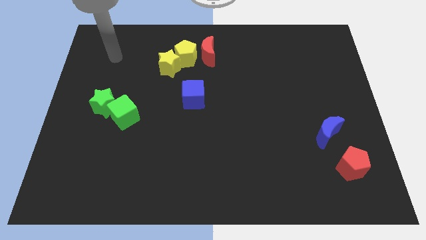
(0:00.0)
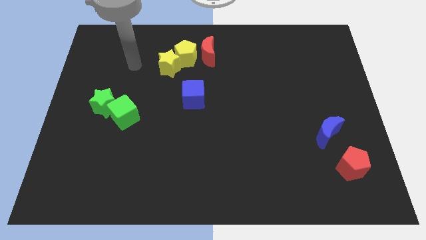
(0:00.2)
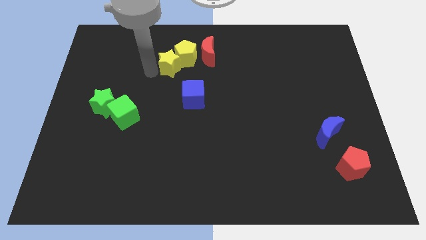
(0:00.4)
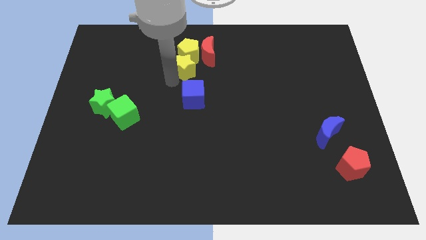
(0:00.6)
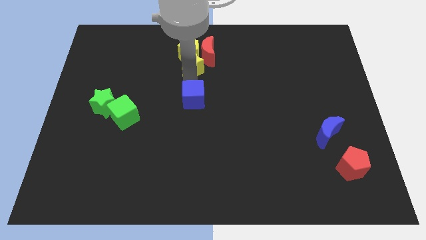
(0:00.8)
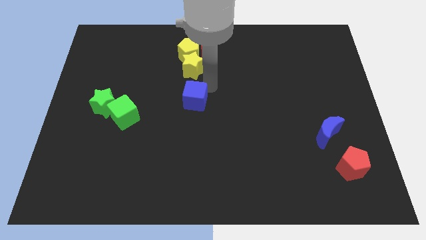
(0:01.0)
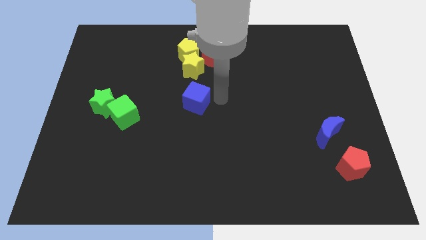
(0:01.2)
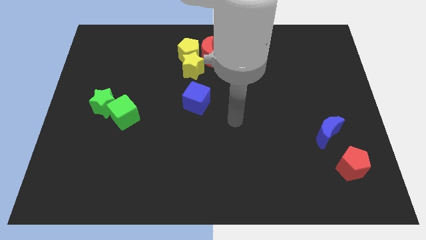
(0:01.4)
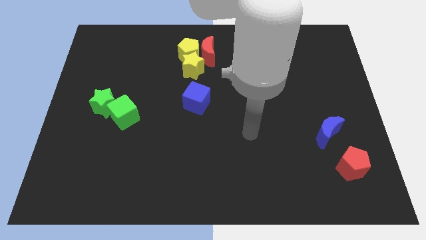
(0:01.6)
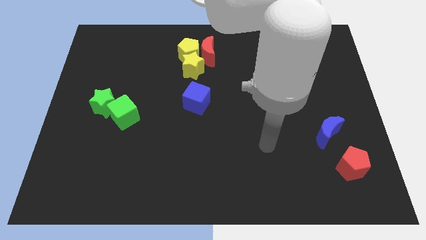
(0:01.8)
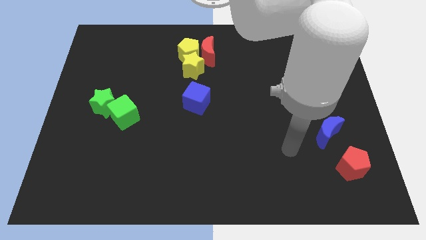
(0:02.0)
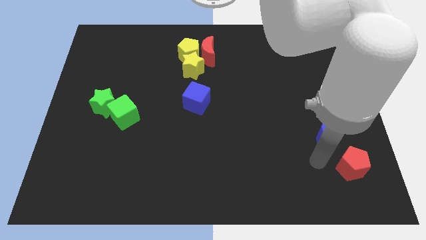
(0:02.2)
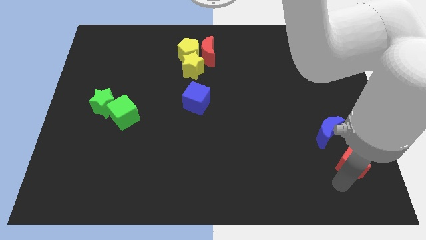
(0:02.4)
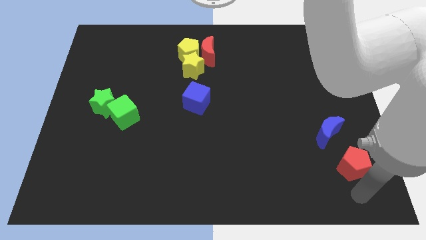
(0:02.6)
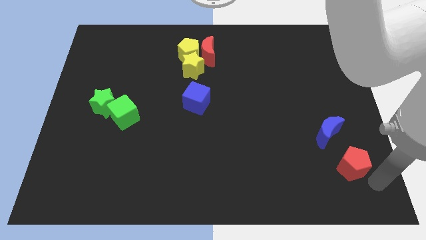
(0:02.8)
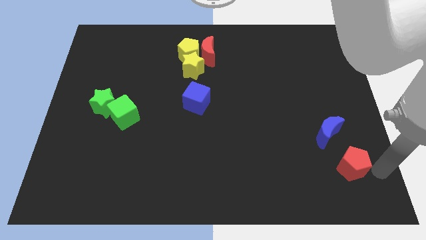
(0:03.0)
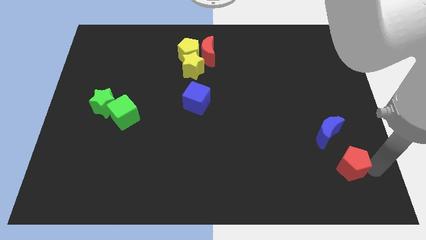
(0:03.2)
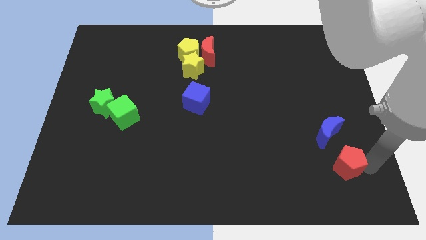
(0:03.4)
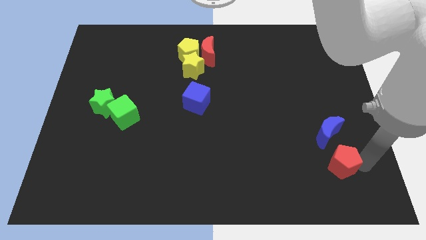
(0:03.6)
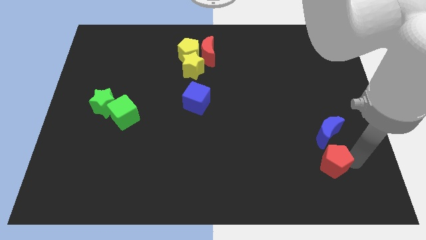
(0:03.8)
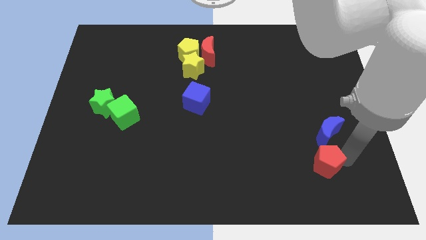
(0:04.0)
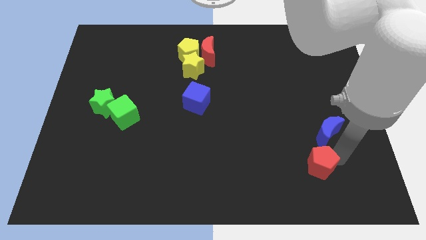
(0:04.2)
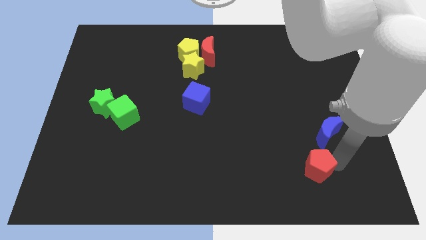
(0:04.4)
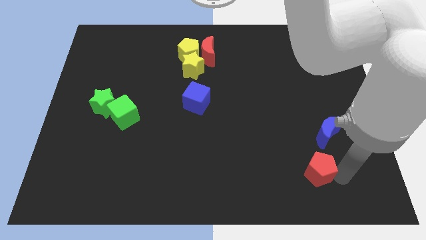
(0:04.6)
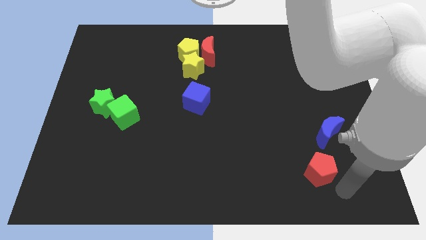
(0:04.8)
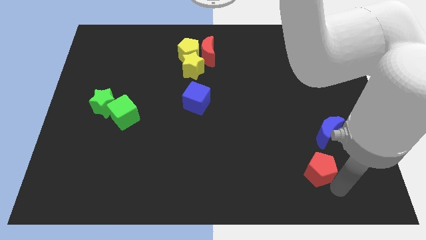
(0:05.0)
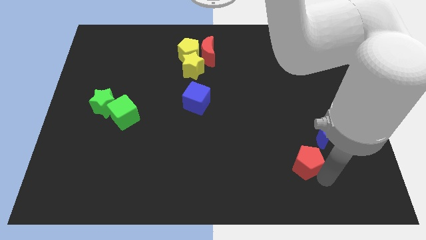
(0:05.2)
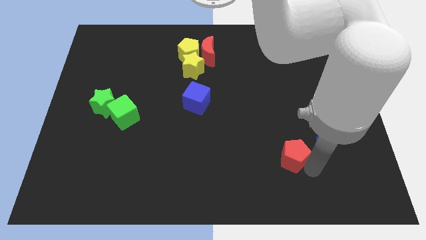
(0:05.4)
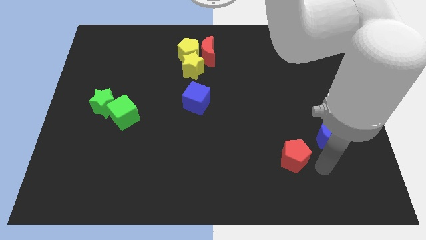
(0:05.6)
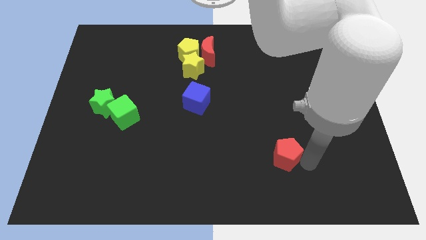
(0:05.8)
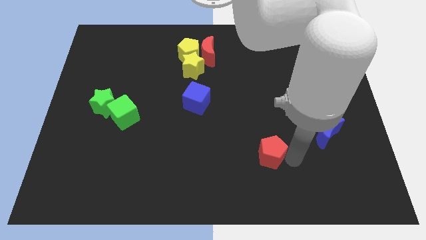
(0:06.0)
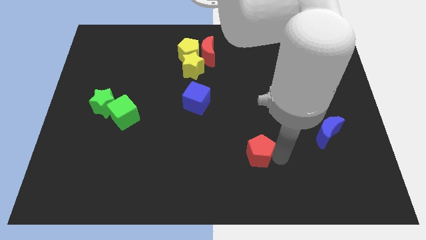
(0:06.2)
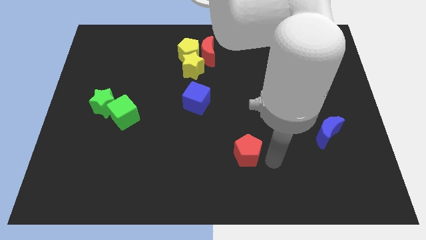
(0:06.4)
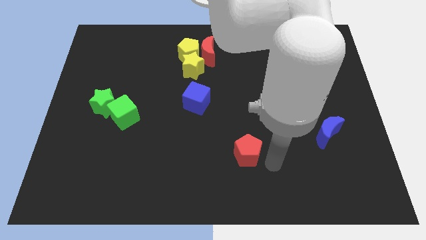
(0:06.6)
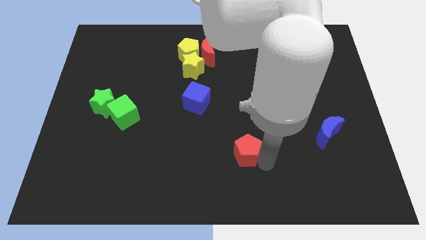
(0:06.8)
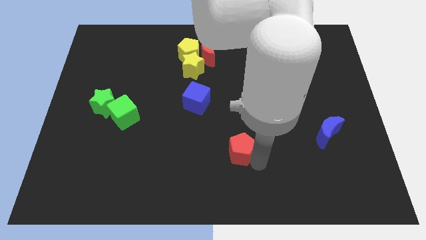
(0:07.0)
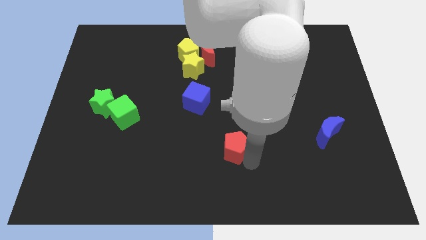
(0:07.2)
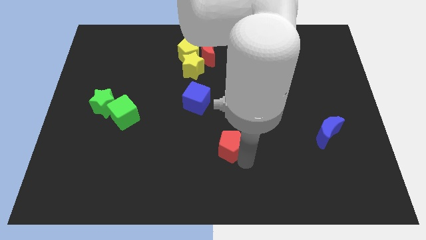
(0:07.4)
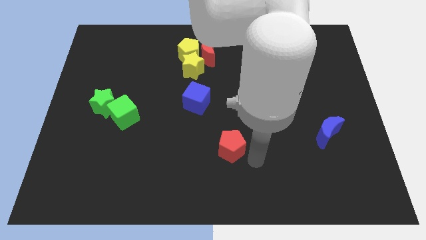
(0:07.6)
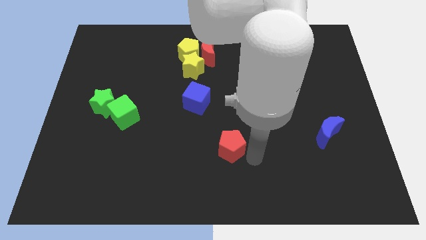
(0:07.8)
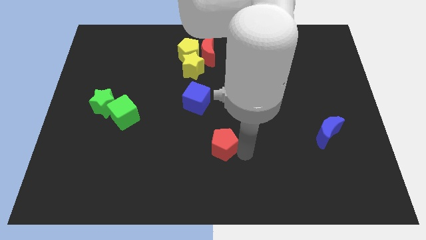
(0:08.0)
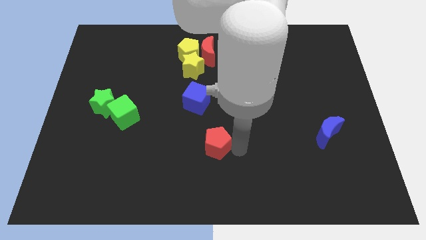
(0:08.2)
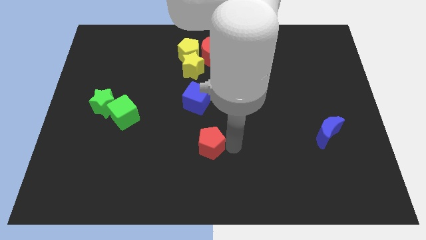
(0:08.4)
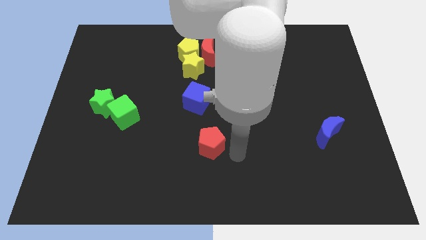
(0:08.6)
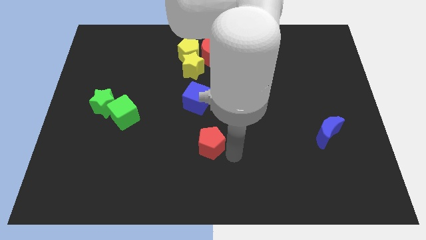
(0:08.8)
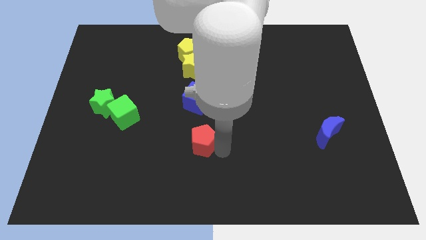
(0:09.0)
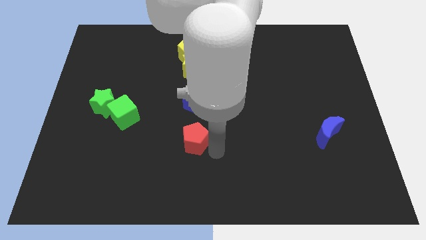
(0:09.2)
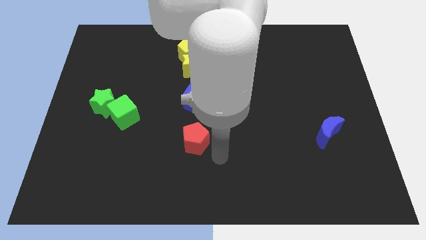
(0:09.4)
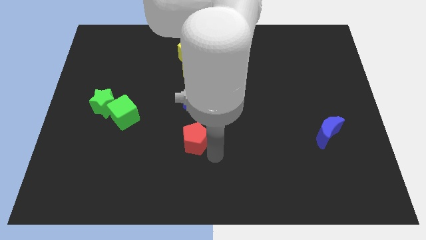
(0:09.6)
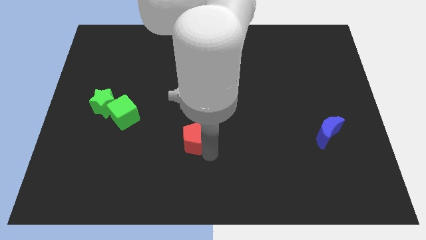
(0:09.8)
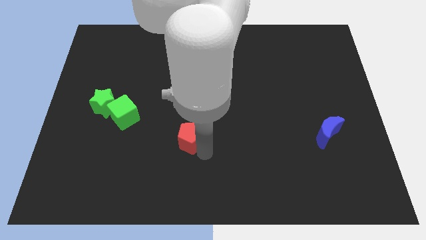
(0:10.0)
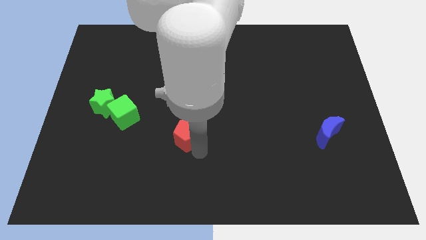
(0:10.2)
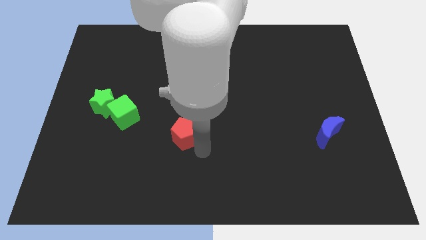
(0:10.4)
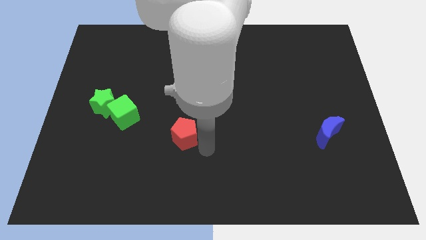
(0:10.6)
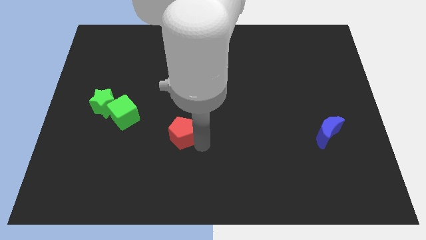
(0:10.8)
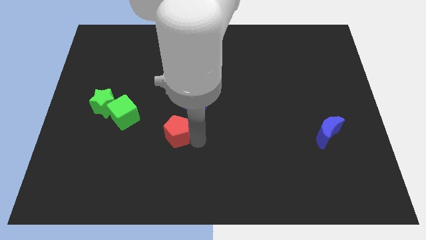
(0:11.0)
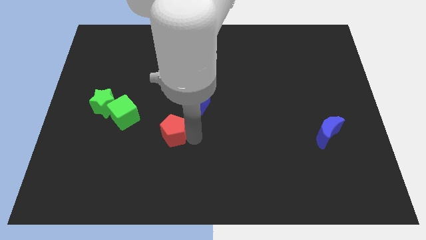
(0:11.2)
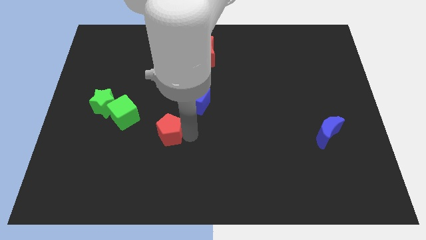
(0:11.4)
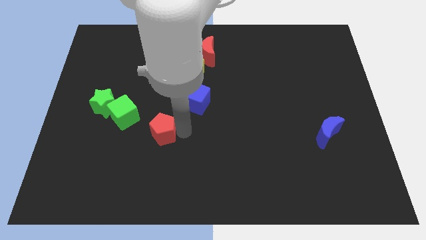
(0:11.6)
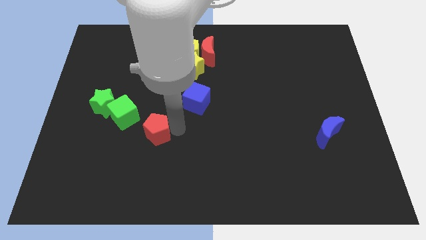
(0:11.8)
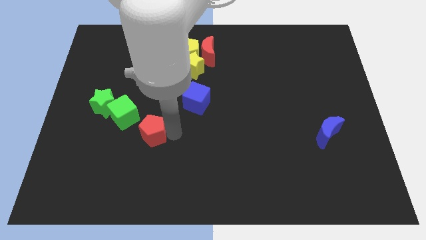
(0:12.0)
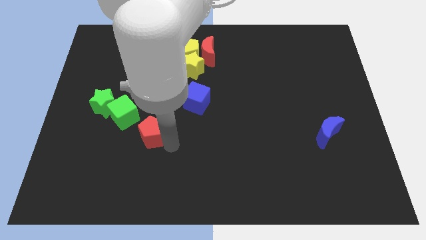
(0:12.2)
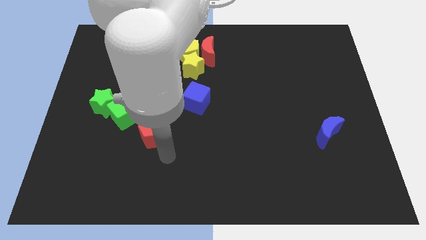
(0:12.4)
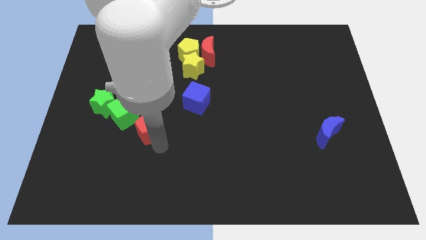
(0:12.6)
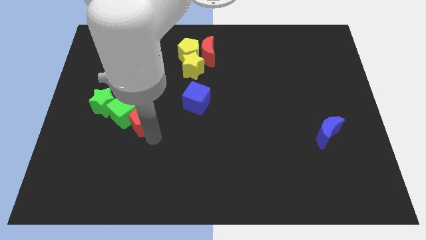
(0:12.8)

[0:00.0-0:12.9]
put the red pentagon towards the green cube
